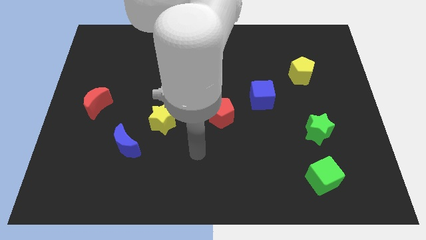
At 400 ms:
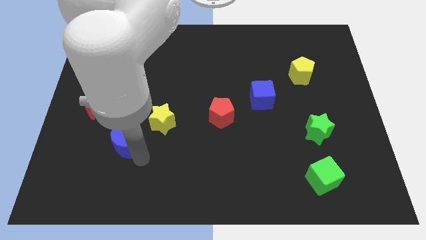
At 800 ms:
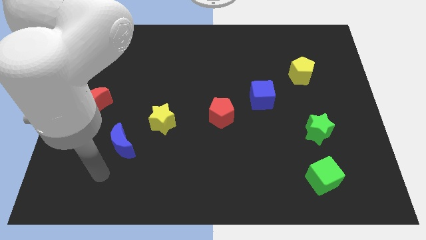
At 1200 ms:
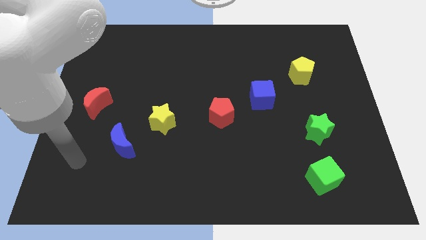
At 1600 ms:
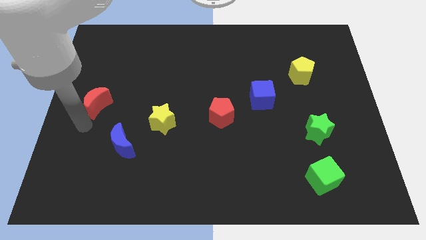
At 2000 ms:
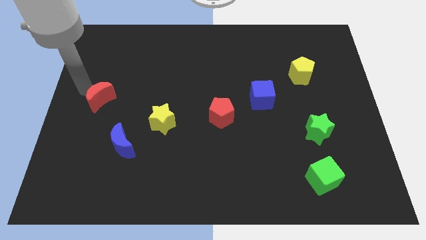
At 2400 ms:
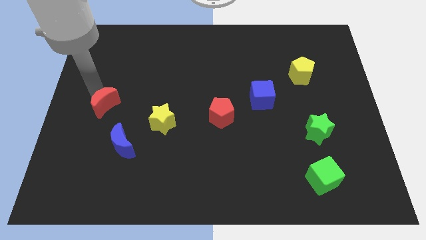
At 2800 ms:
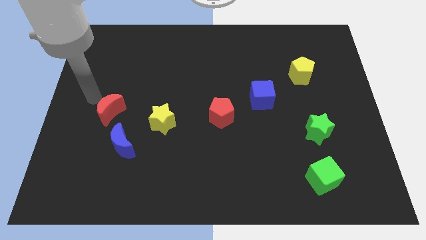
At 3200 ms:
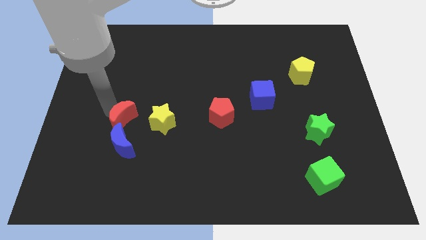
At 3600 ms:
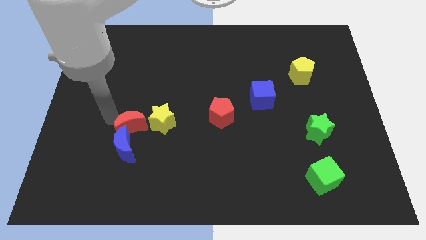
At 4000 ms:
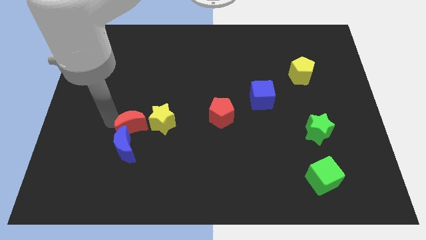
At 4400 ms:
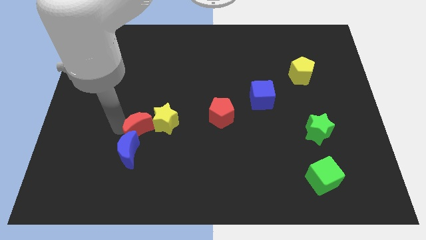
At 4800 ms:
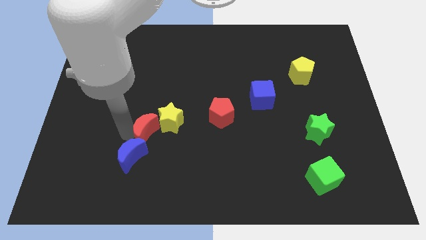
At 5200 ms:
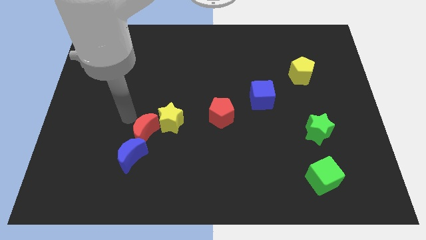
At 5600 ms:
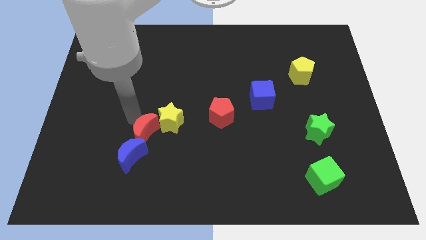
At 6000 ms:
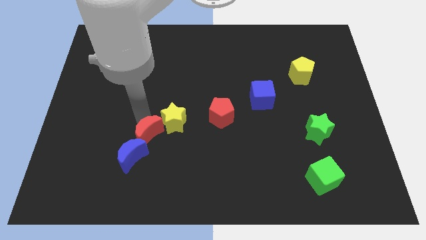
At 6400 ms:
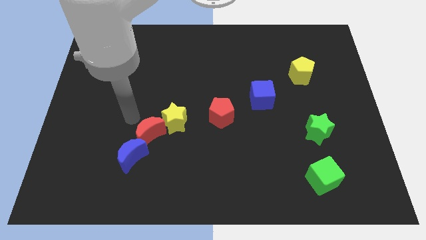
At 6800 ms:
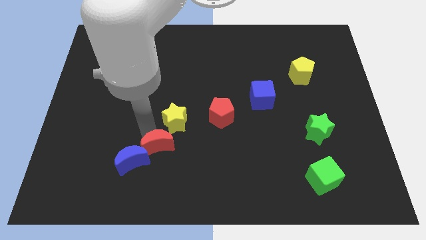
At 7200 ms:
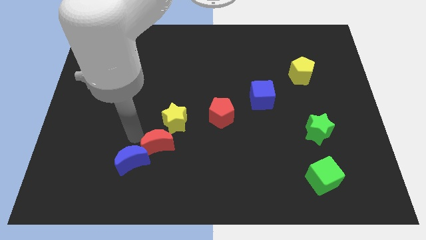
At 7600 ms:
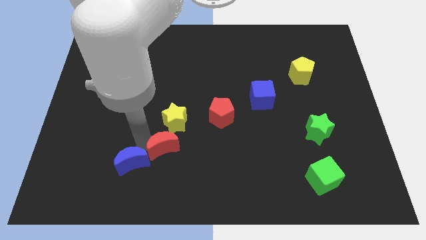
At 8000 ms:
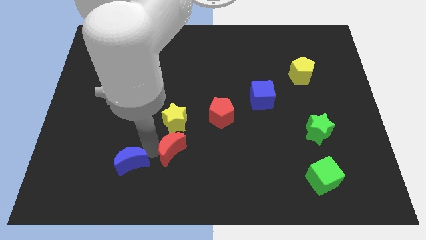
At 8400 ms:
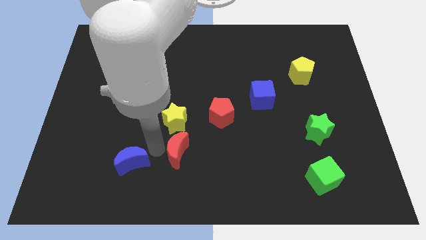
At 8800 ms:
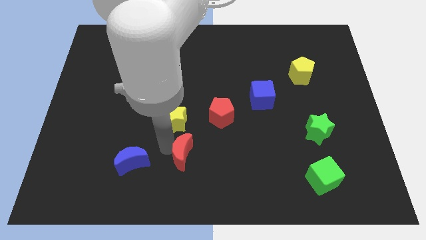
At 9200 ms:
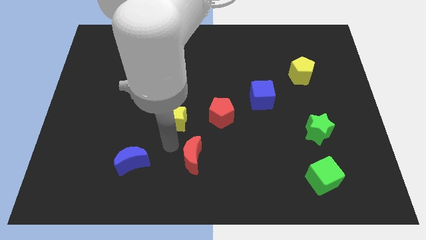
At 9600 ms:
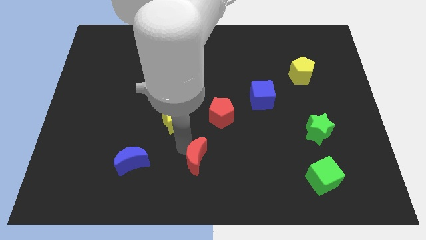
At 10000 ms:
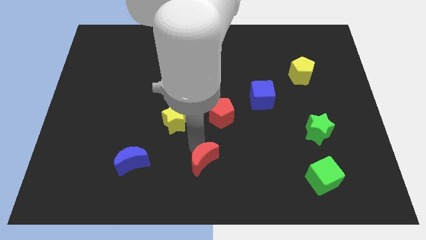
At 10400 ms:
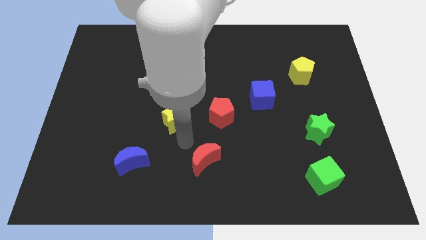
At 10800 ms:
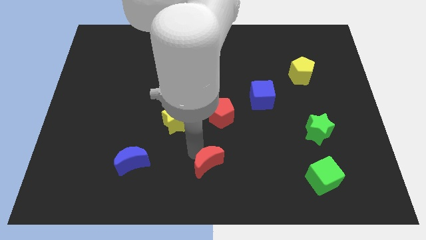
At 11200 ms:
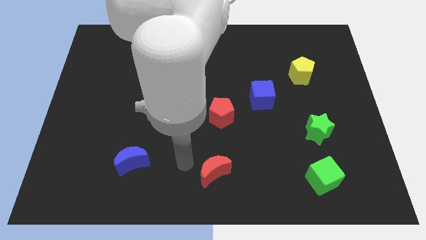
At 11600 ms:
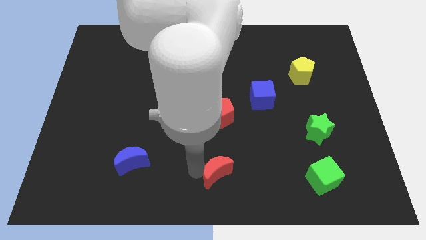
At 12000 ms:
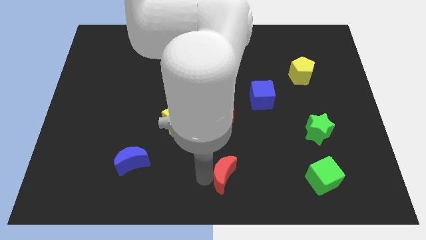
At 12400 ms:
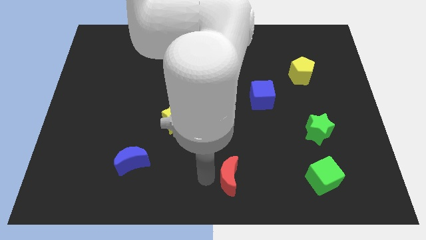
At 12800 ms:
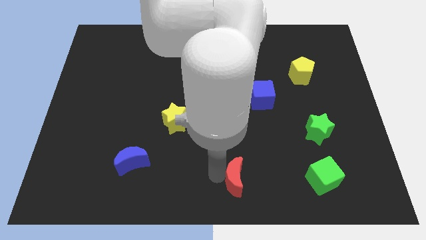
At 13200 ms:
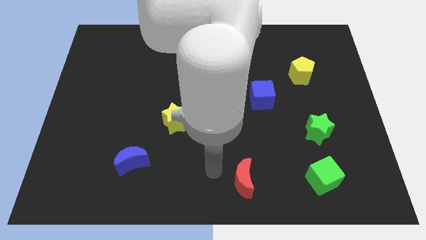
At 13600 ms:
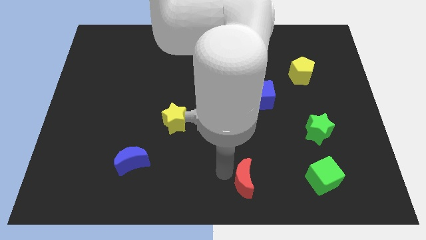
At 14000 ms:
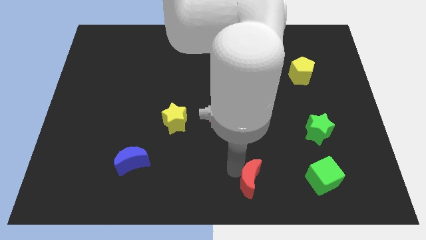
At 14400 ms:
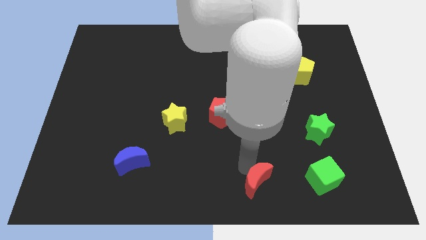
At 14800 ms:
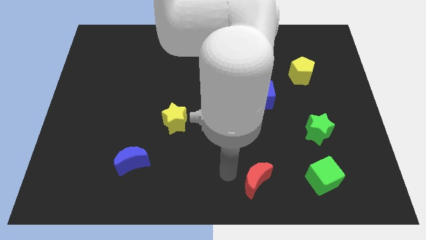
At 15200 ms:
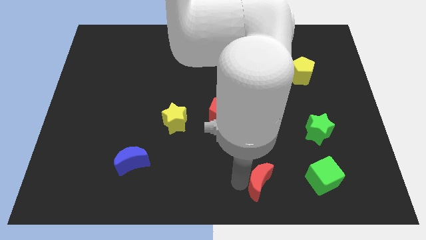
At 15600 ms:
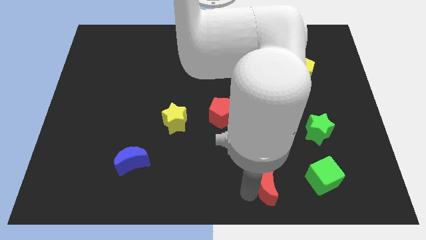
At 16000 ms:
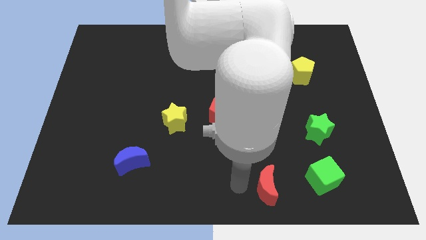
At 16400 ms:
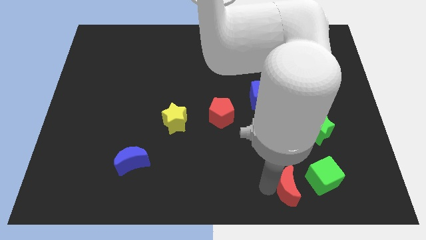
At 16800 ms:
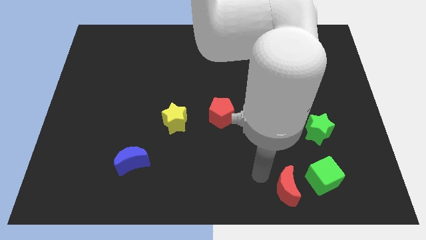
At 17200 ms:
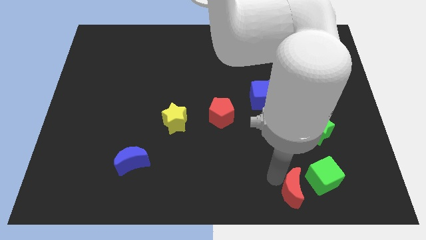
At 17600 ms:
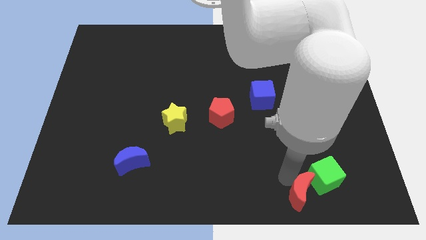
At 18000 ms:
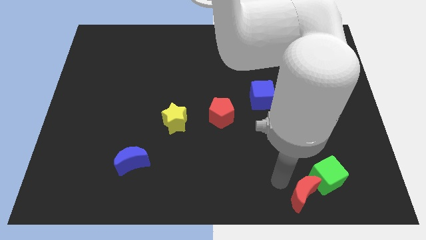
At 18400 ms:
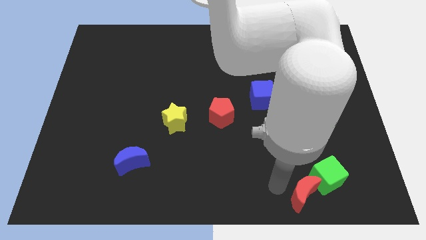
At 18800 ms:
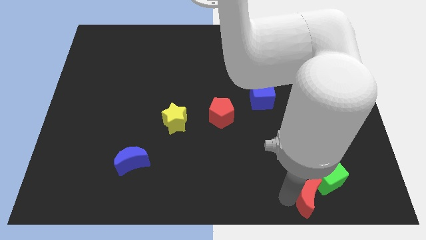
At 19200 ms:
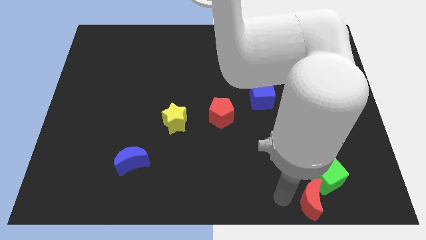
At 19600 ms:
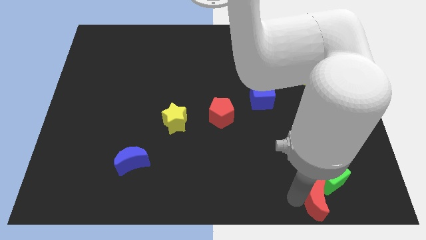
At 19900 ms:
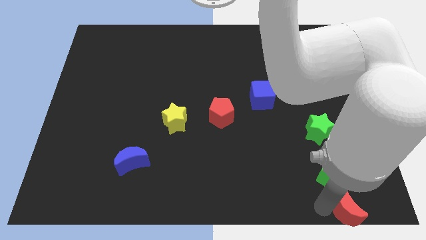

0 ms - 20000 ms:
push the red moon to the bottom right of the board
